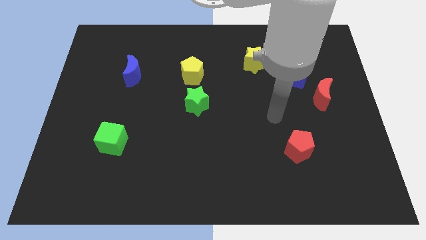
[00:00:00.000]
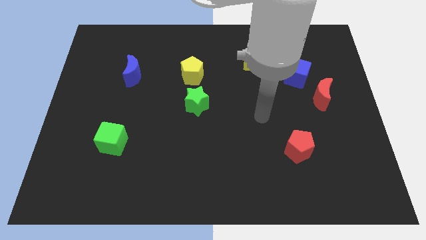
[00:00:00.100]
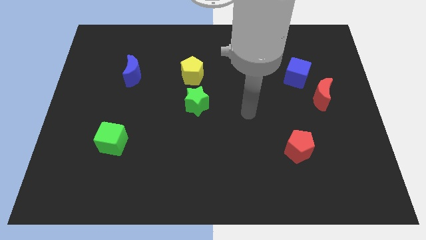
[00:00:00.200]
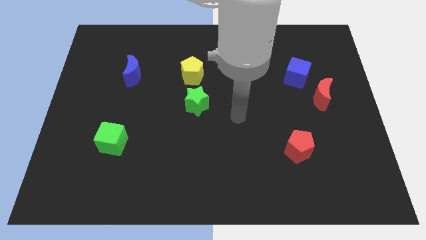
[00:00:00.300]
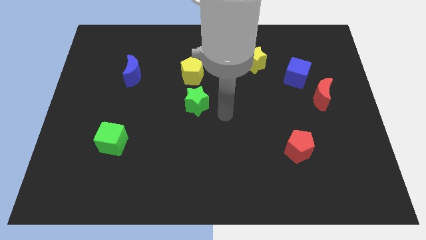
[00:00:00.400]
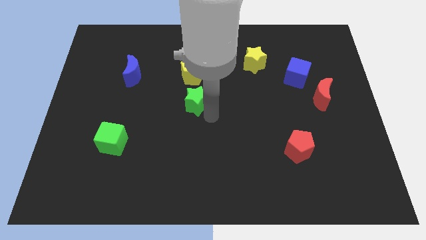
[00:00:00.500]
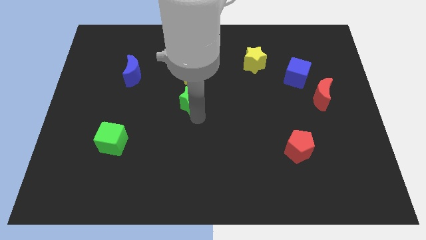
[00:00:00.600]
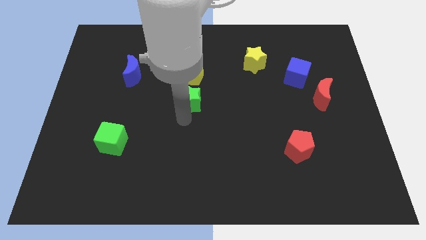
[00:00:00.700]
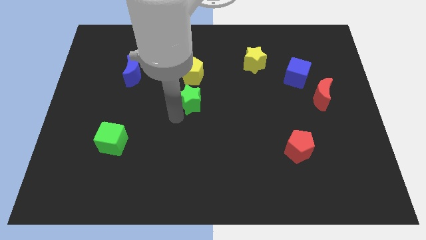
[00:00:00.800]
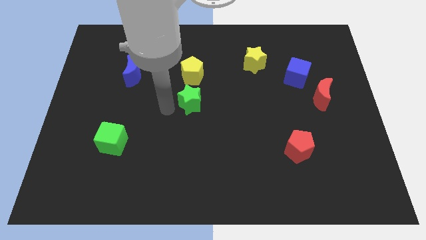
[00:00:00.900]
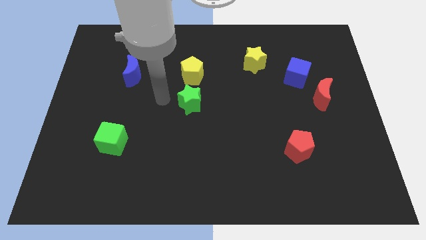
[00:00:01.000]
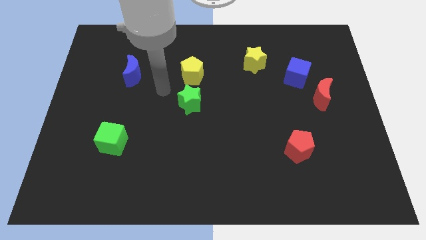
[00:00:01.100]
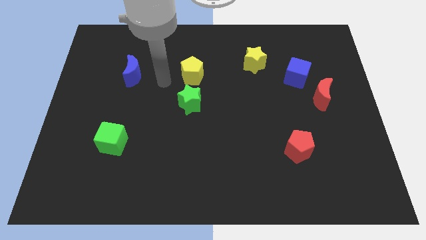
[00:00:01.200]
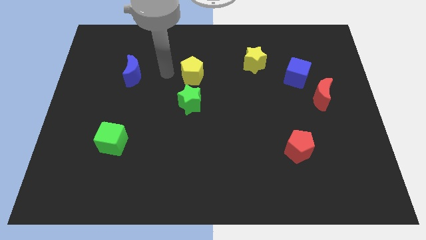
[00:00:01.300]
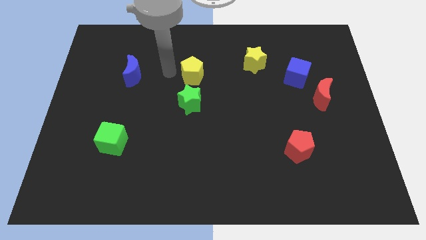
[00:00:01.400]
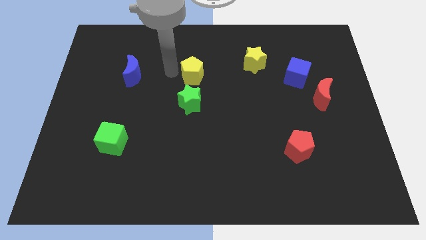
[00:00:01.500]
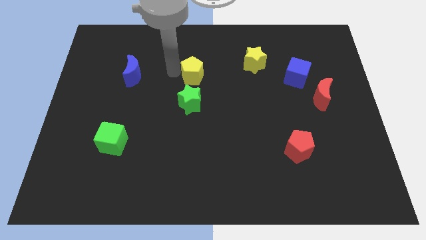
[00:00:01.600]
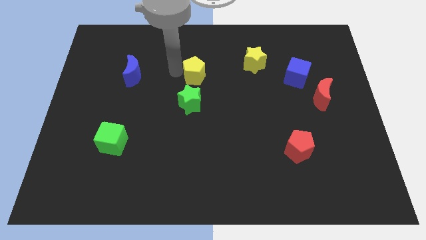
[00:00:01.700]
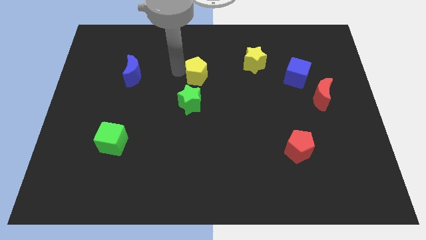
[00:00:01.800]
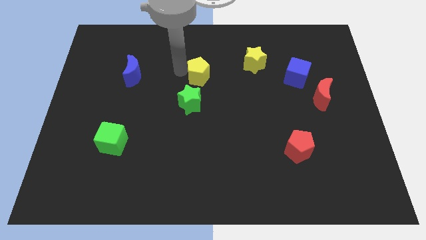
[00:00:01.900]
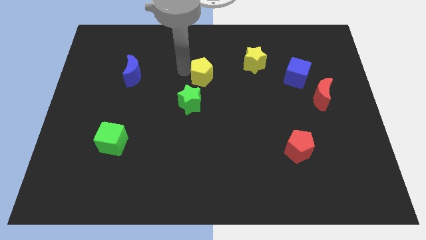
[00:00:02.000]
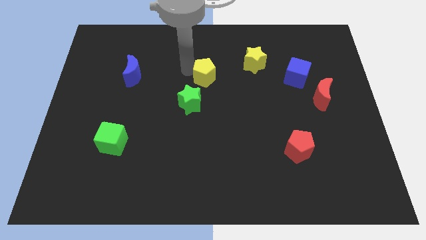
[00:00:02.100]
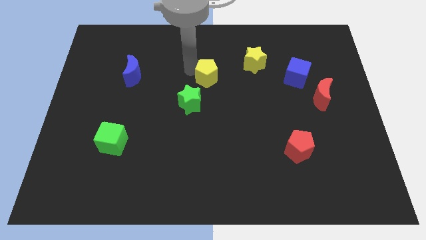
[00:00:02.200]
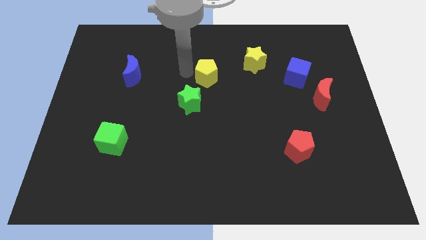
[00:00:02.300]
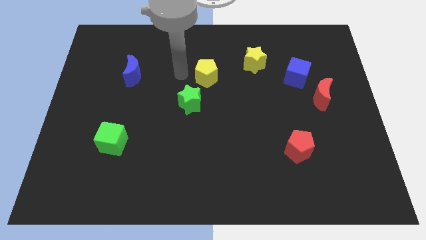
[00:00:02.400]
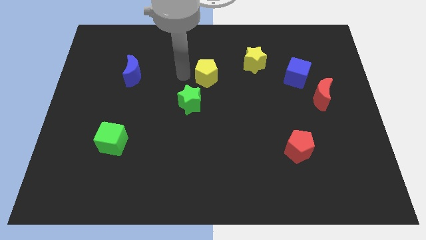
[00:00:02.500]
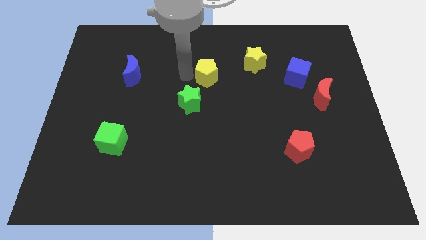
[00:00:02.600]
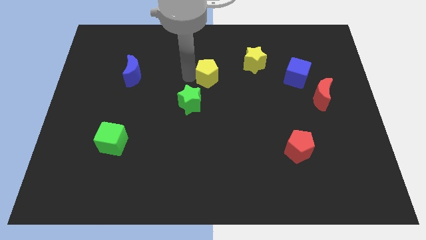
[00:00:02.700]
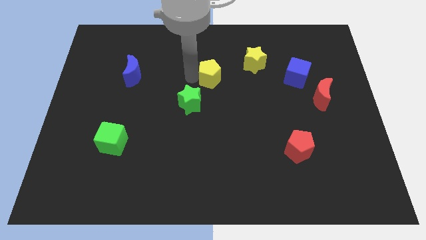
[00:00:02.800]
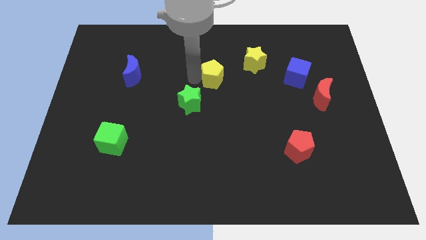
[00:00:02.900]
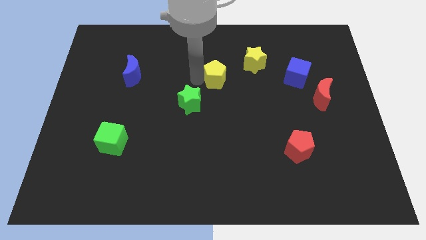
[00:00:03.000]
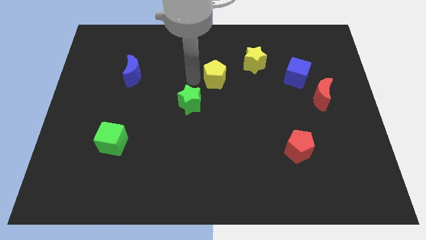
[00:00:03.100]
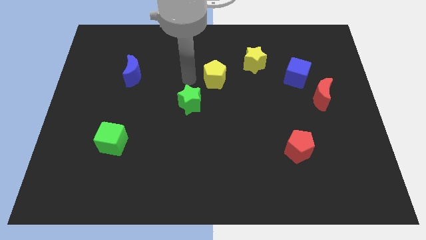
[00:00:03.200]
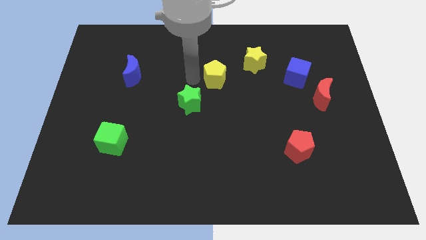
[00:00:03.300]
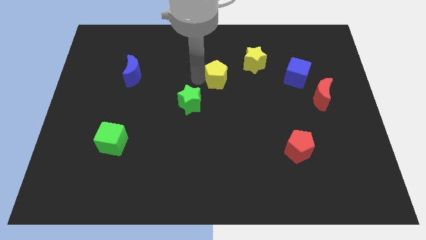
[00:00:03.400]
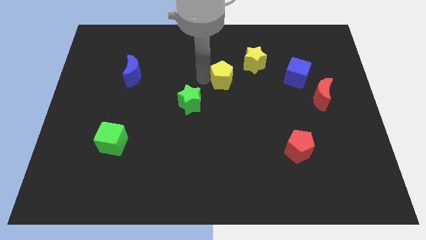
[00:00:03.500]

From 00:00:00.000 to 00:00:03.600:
slide the yellow pentagon to the right a little bit

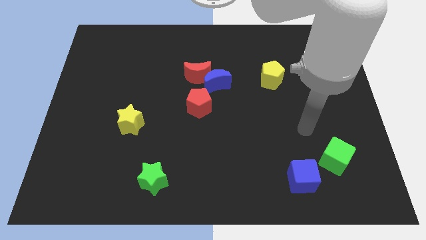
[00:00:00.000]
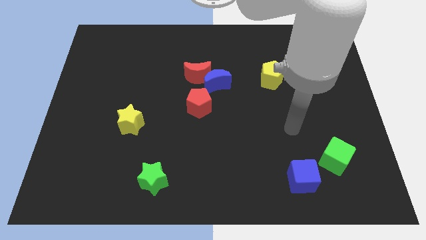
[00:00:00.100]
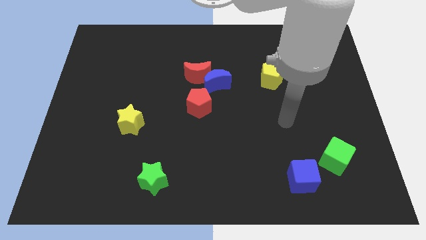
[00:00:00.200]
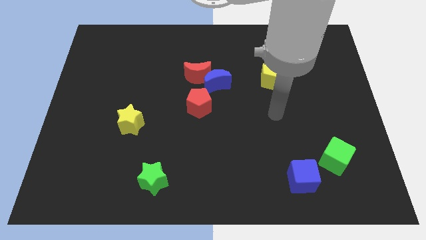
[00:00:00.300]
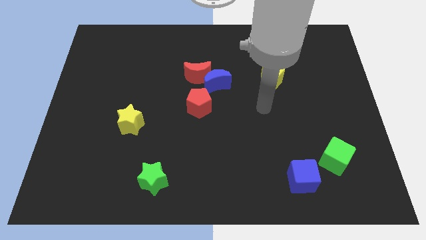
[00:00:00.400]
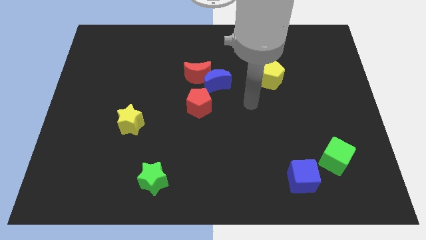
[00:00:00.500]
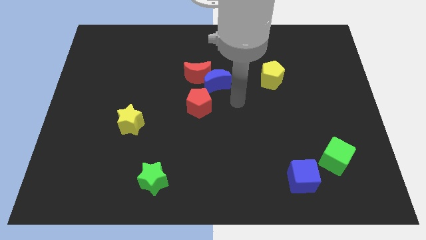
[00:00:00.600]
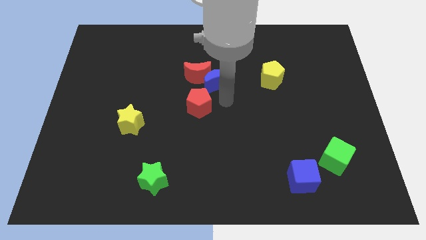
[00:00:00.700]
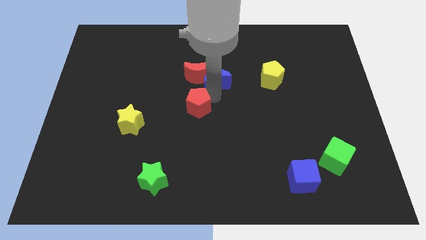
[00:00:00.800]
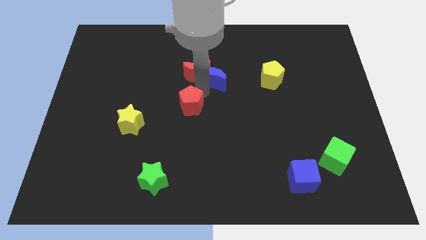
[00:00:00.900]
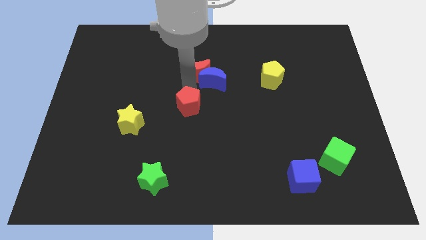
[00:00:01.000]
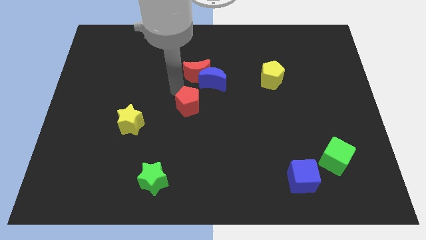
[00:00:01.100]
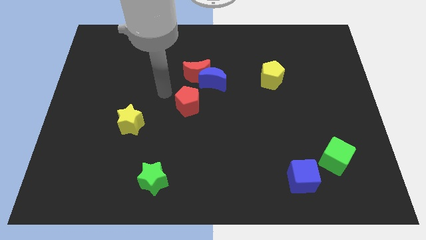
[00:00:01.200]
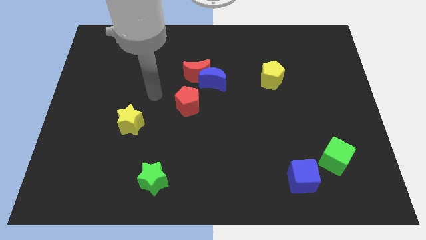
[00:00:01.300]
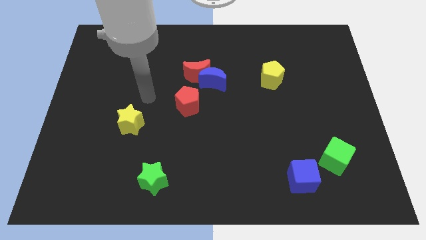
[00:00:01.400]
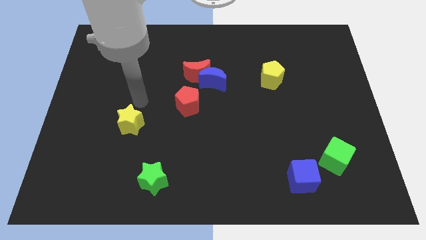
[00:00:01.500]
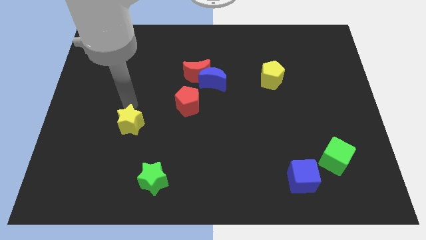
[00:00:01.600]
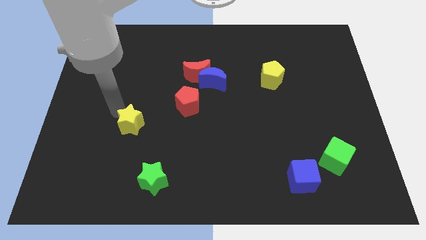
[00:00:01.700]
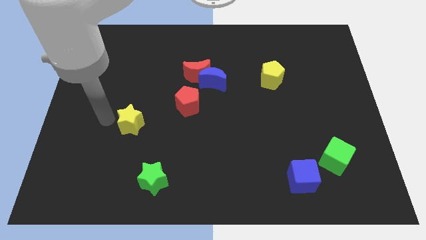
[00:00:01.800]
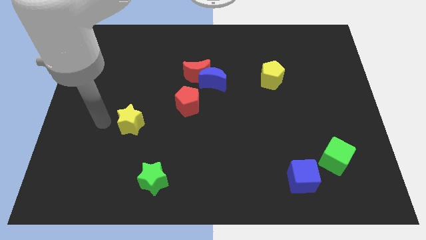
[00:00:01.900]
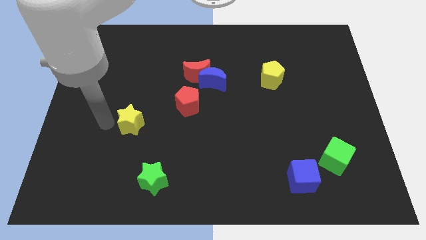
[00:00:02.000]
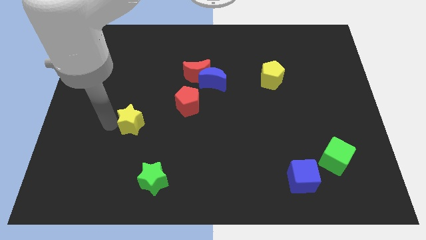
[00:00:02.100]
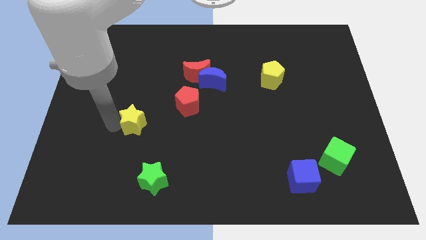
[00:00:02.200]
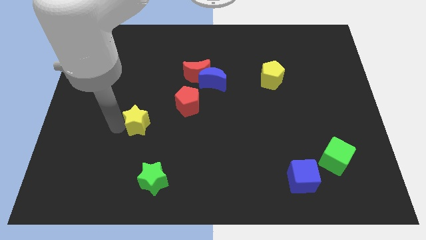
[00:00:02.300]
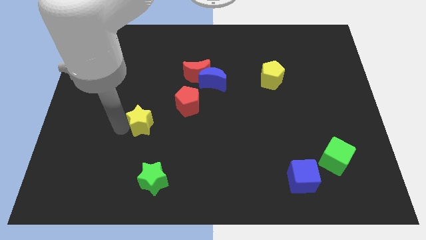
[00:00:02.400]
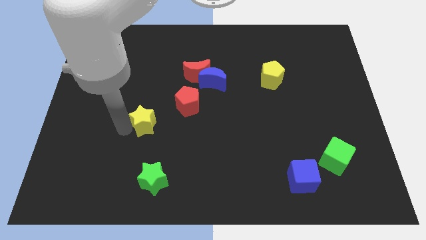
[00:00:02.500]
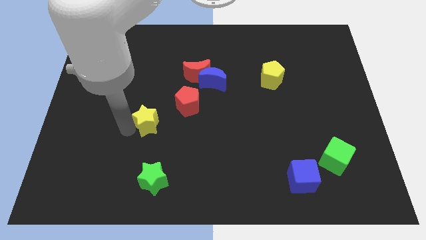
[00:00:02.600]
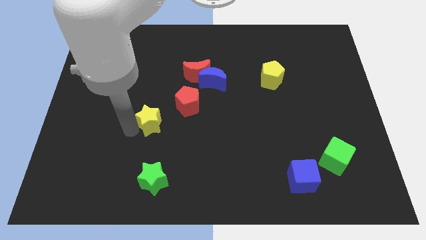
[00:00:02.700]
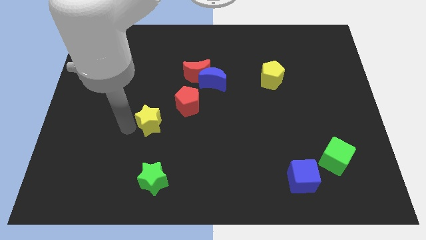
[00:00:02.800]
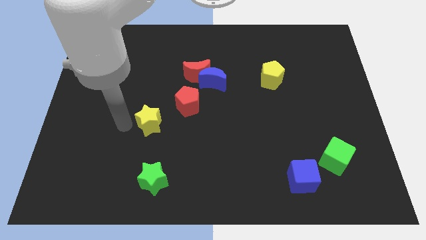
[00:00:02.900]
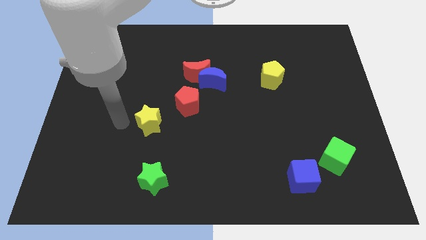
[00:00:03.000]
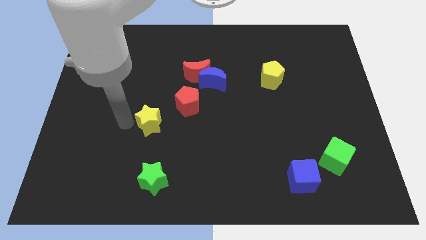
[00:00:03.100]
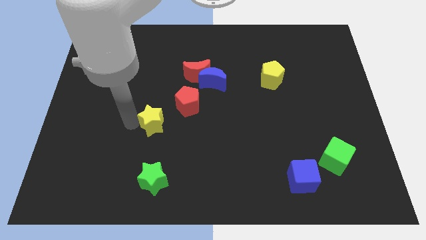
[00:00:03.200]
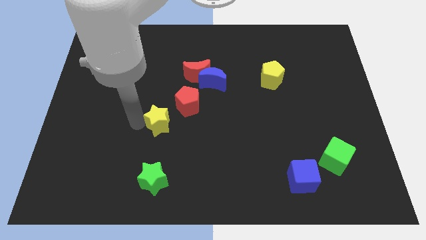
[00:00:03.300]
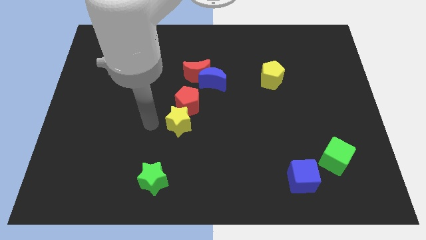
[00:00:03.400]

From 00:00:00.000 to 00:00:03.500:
slightly slide the yellow star right

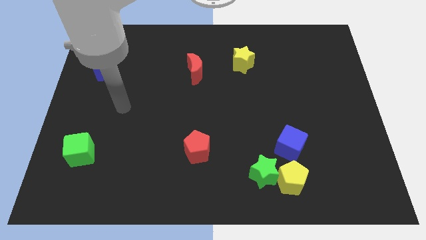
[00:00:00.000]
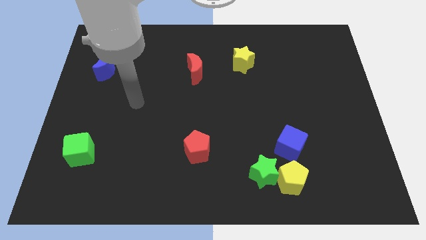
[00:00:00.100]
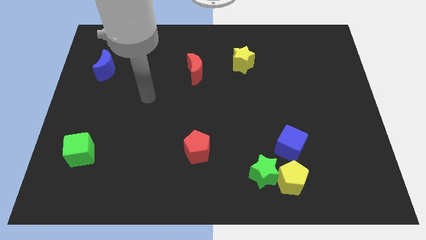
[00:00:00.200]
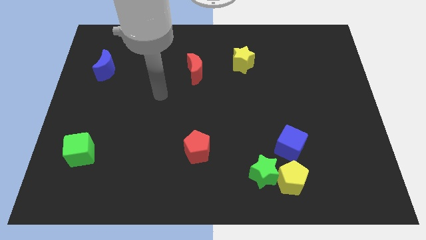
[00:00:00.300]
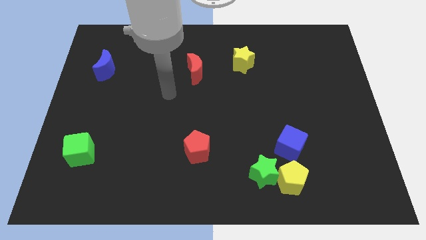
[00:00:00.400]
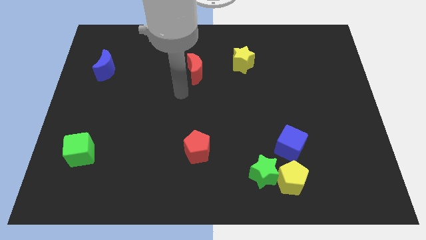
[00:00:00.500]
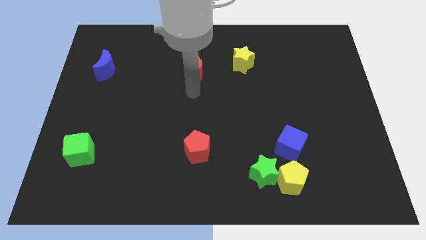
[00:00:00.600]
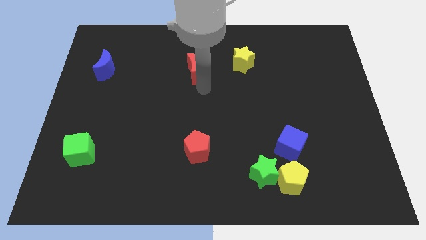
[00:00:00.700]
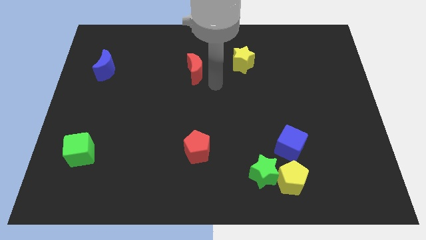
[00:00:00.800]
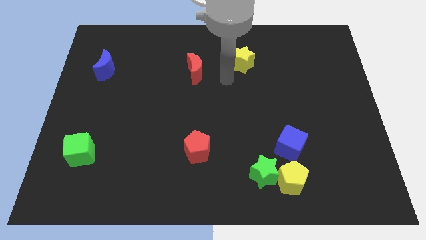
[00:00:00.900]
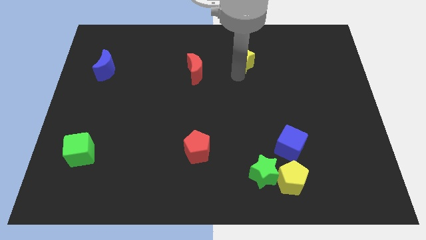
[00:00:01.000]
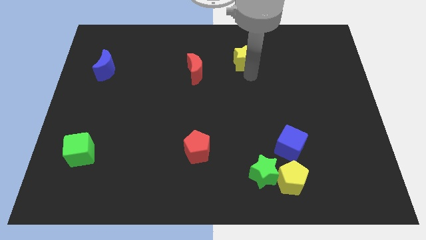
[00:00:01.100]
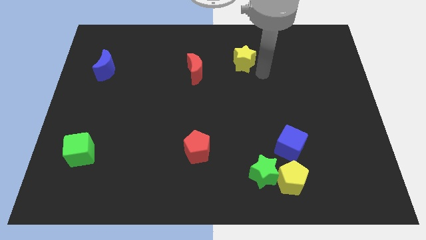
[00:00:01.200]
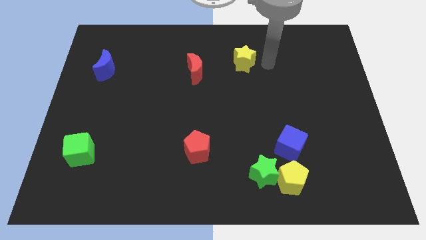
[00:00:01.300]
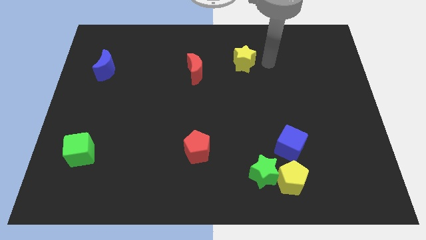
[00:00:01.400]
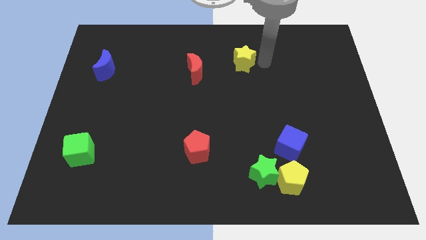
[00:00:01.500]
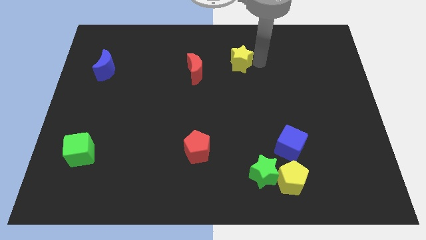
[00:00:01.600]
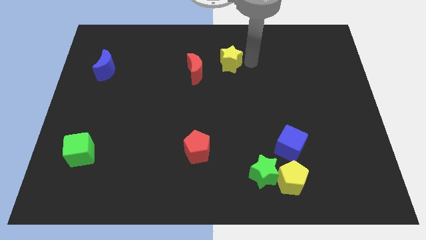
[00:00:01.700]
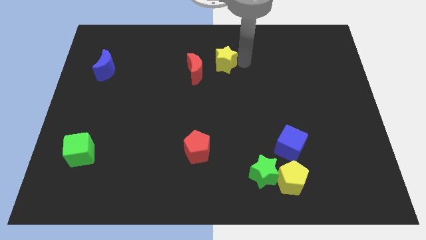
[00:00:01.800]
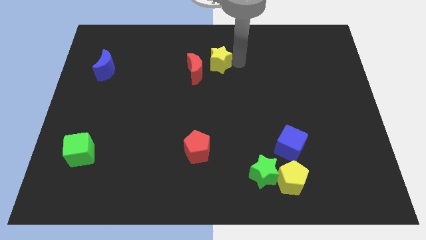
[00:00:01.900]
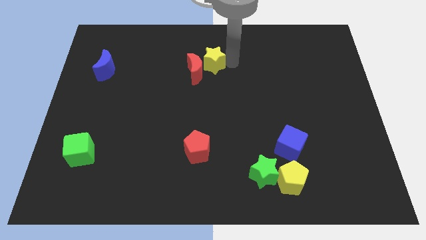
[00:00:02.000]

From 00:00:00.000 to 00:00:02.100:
slightly push the yellow star to the left
